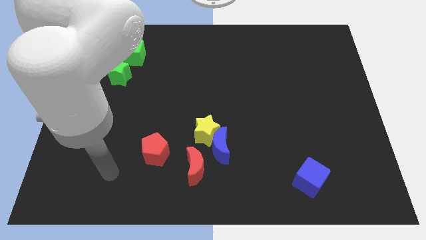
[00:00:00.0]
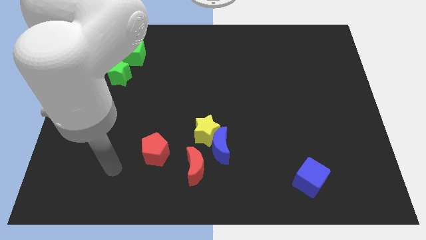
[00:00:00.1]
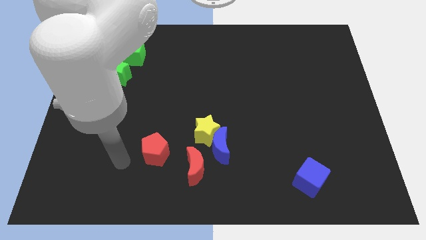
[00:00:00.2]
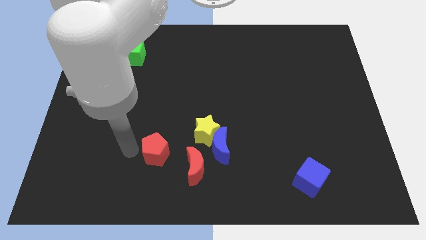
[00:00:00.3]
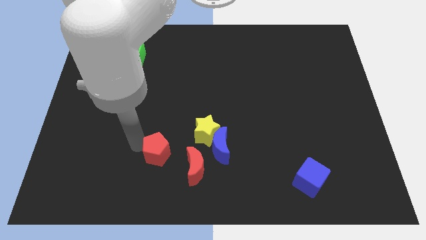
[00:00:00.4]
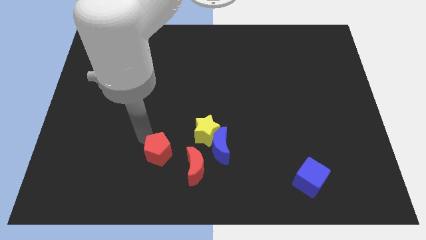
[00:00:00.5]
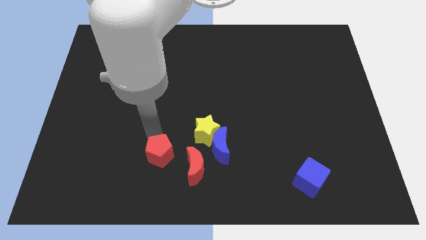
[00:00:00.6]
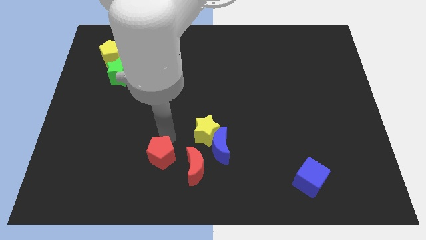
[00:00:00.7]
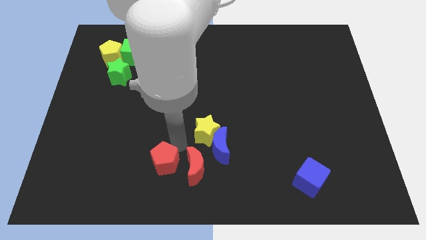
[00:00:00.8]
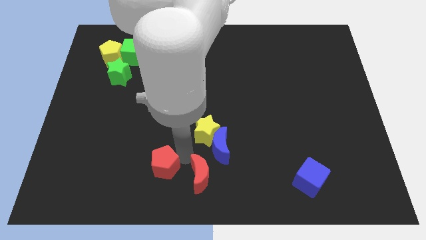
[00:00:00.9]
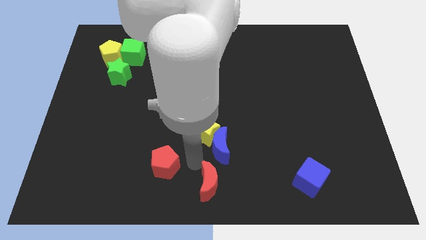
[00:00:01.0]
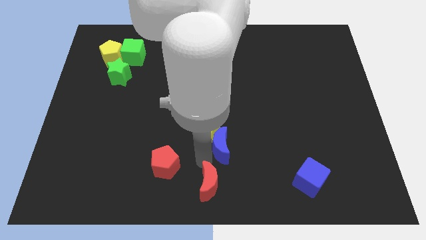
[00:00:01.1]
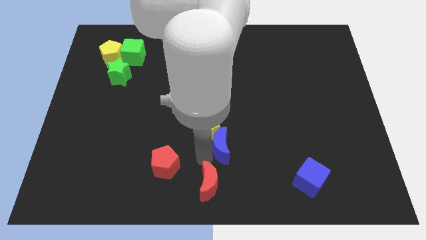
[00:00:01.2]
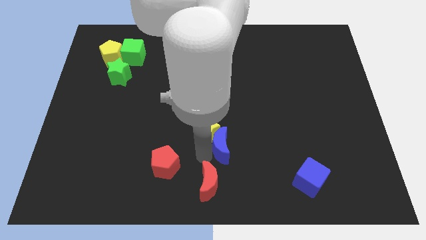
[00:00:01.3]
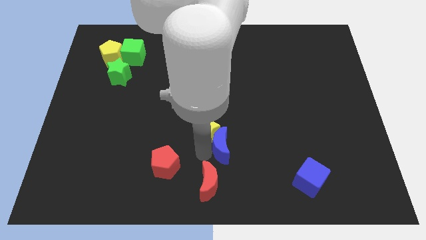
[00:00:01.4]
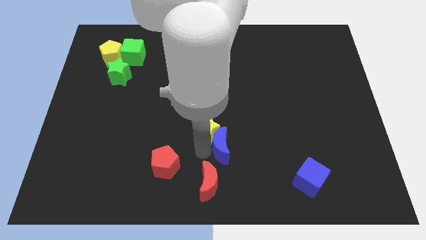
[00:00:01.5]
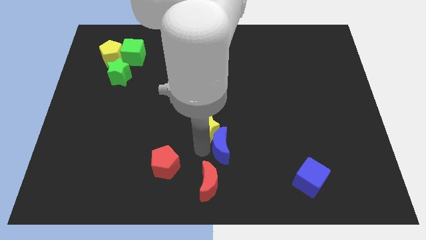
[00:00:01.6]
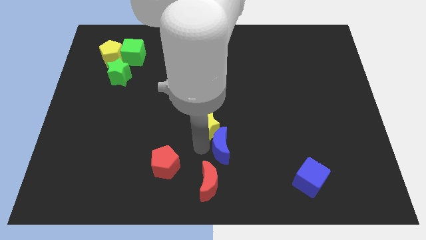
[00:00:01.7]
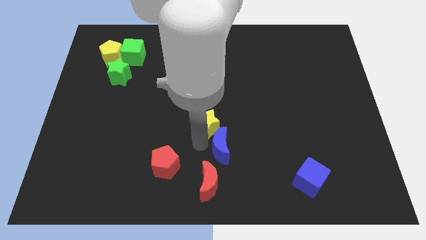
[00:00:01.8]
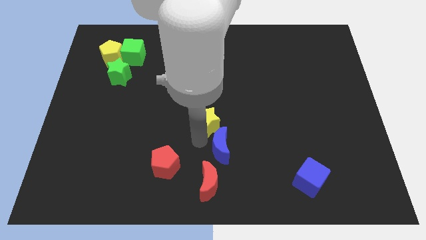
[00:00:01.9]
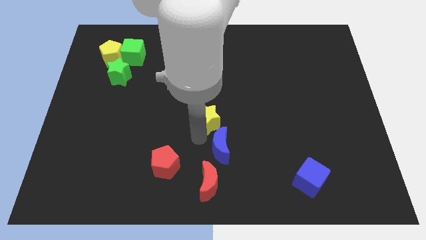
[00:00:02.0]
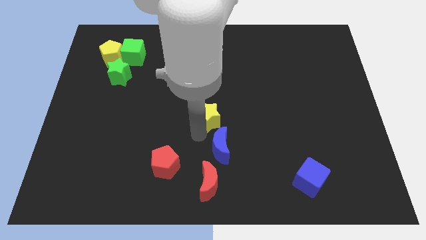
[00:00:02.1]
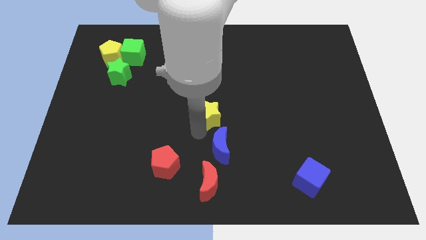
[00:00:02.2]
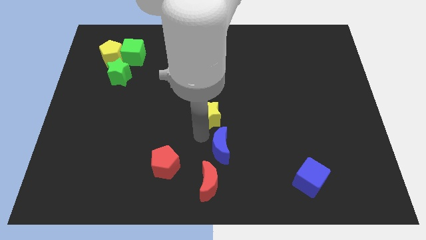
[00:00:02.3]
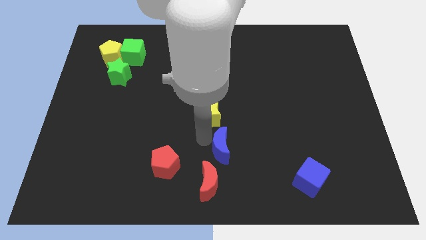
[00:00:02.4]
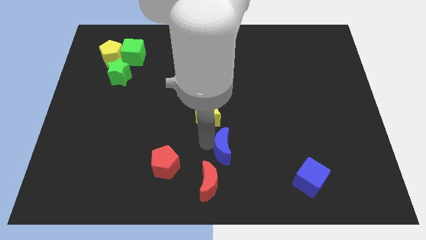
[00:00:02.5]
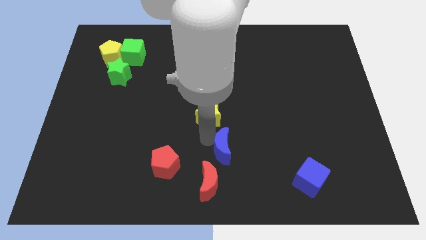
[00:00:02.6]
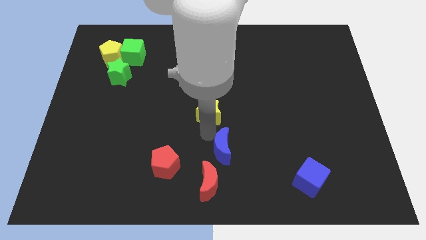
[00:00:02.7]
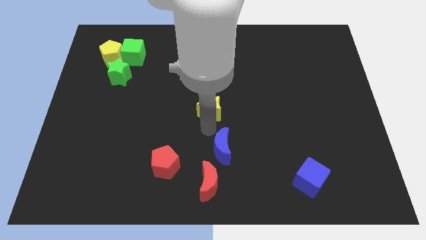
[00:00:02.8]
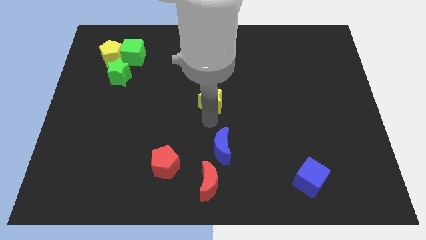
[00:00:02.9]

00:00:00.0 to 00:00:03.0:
slide the yellow star a little upwards

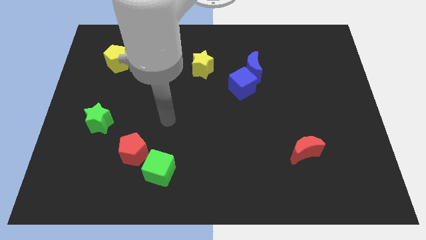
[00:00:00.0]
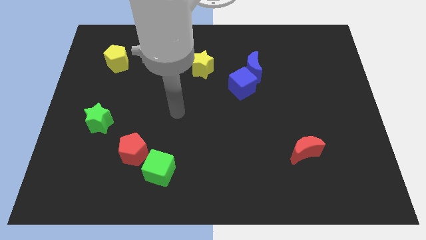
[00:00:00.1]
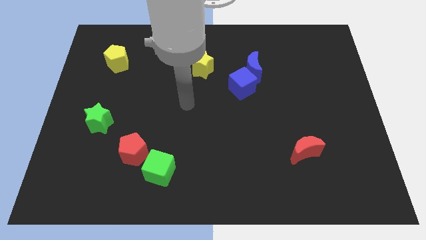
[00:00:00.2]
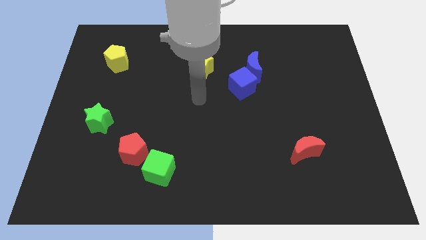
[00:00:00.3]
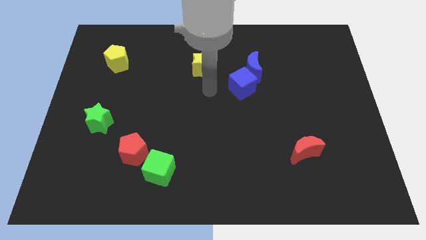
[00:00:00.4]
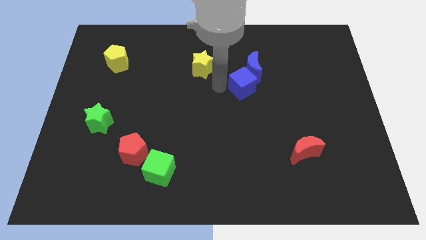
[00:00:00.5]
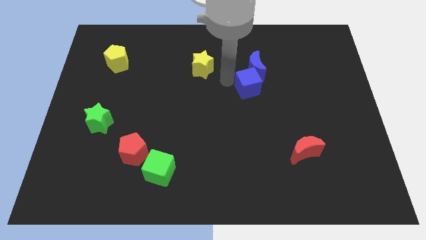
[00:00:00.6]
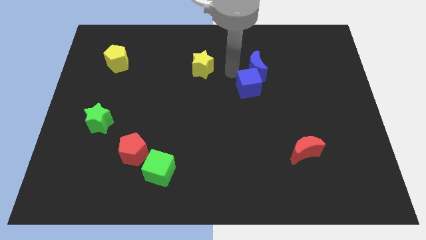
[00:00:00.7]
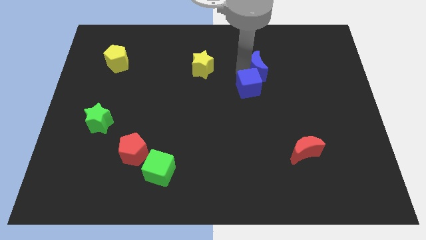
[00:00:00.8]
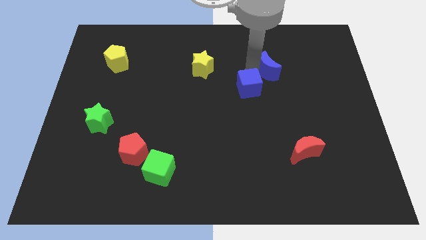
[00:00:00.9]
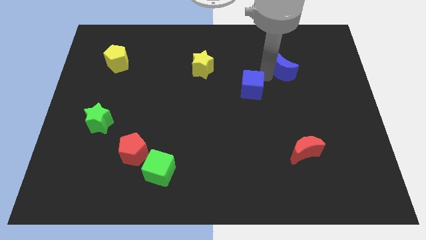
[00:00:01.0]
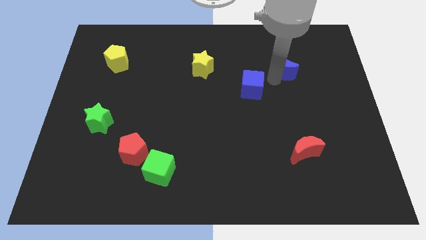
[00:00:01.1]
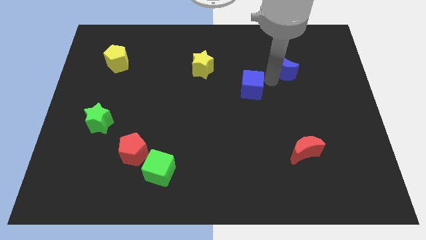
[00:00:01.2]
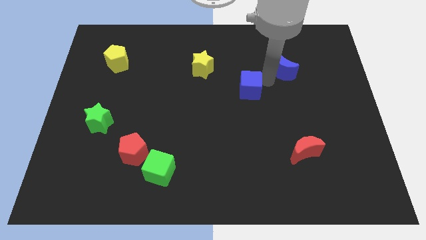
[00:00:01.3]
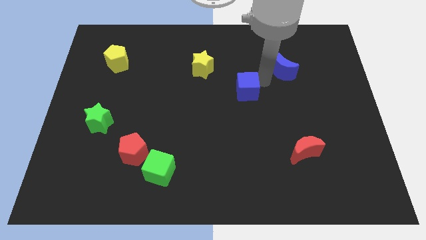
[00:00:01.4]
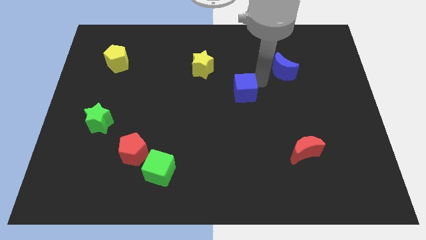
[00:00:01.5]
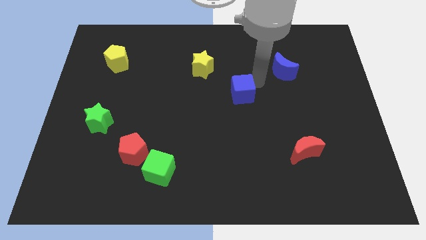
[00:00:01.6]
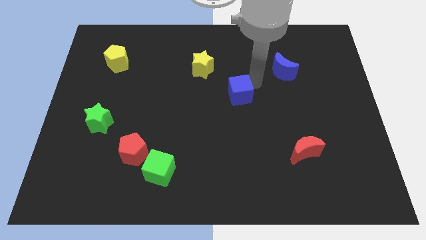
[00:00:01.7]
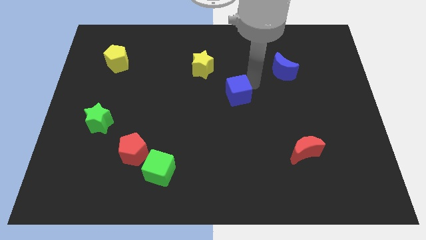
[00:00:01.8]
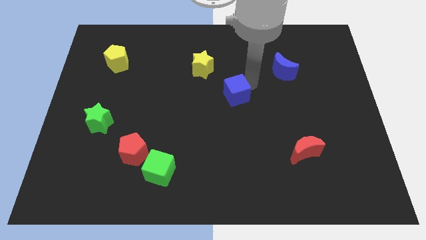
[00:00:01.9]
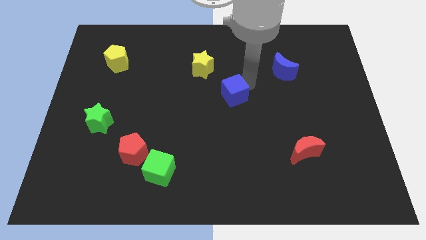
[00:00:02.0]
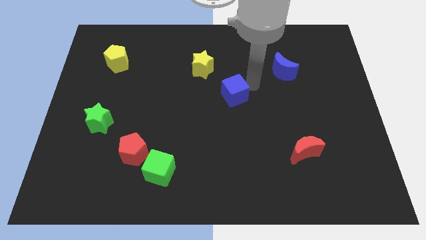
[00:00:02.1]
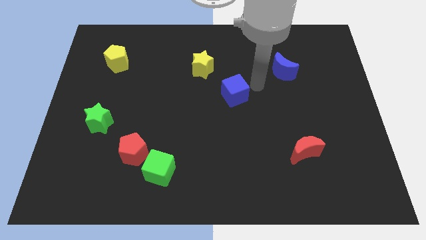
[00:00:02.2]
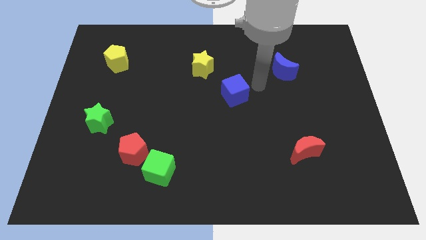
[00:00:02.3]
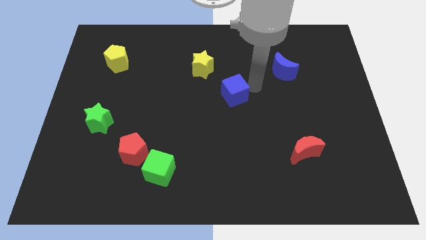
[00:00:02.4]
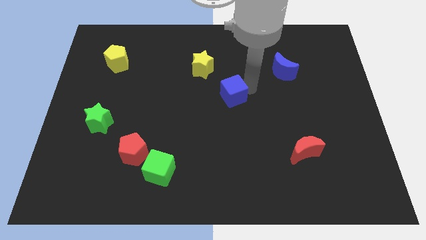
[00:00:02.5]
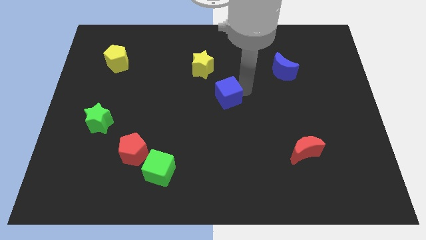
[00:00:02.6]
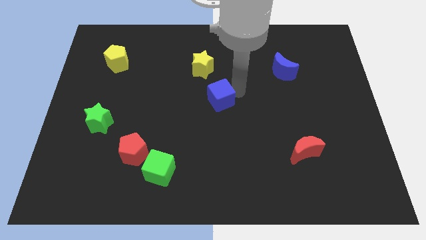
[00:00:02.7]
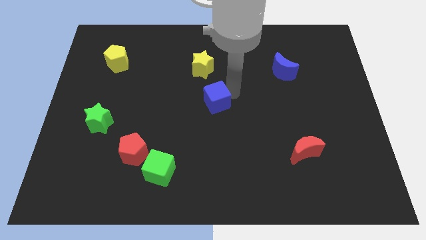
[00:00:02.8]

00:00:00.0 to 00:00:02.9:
move the blue cube downwards and then left a little bit

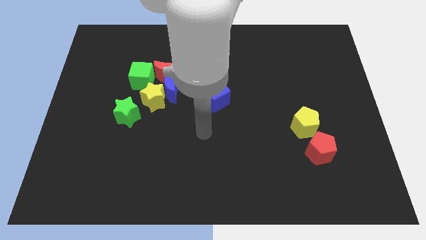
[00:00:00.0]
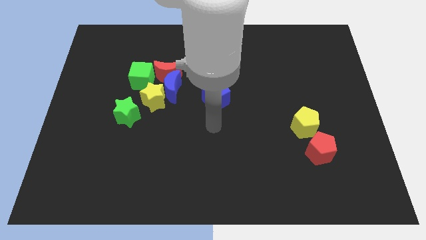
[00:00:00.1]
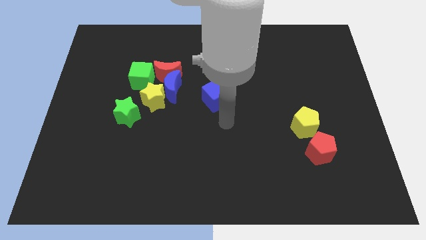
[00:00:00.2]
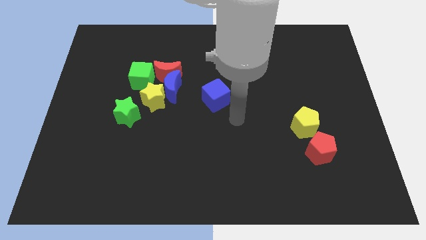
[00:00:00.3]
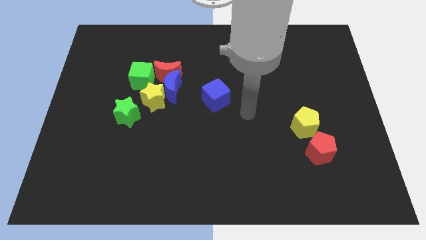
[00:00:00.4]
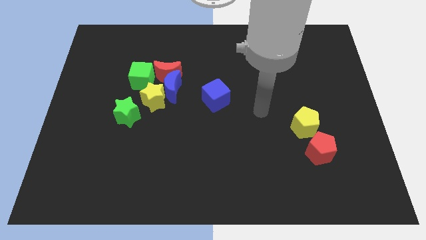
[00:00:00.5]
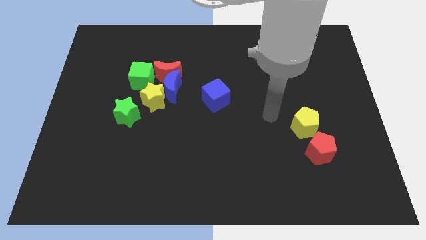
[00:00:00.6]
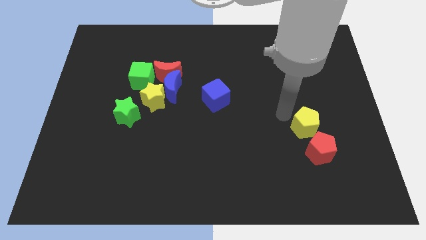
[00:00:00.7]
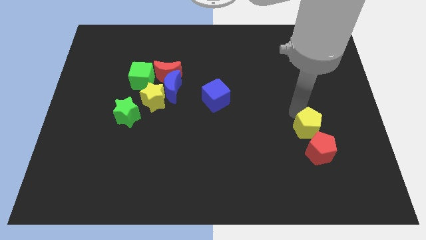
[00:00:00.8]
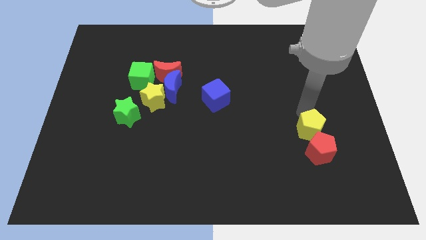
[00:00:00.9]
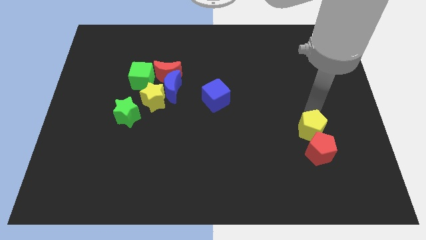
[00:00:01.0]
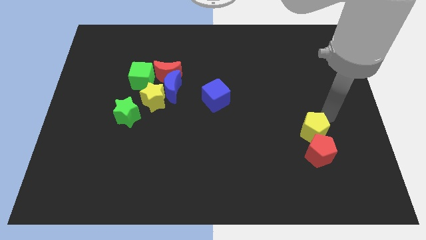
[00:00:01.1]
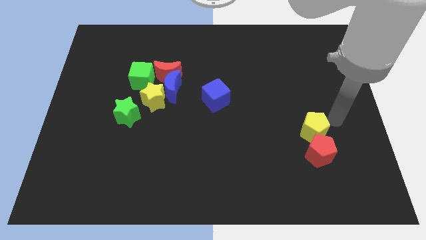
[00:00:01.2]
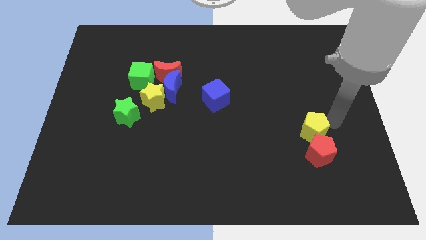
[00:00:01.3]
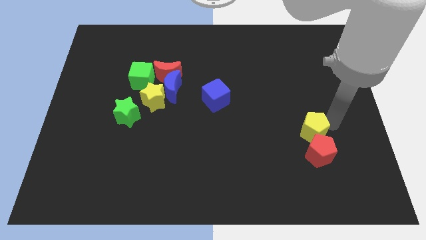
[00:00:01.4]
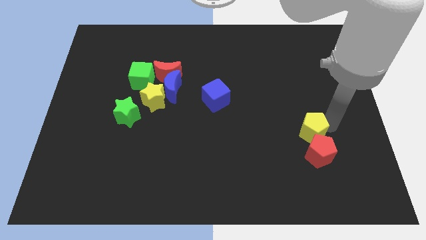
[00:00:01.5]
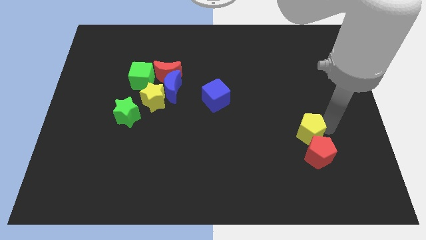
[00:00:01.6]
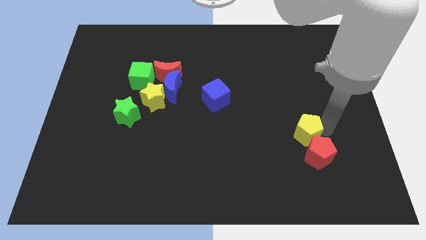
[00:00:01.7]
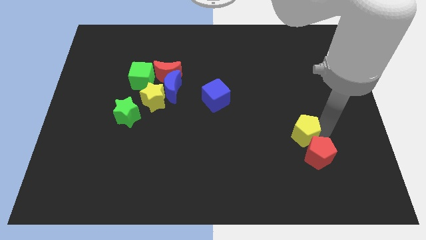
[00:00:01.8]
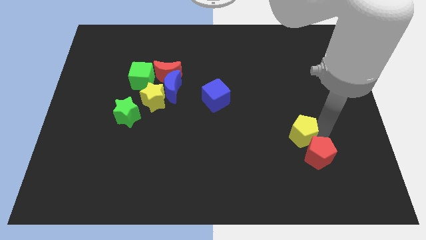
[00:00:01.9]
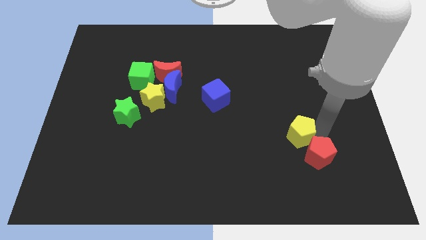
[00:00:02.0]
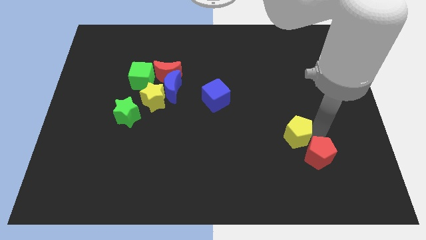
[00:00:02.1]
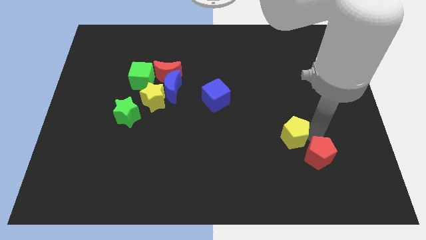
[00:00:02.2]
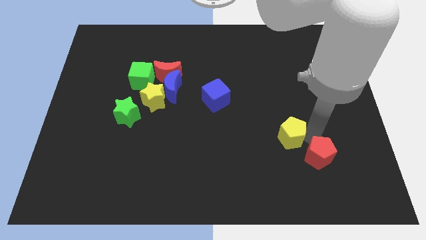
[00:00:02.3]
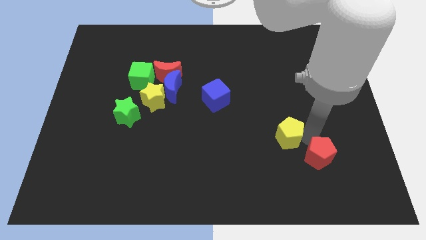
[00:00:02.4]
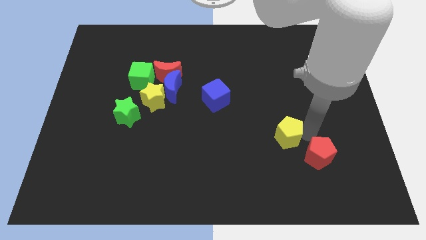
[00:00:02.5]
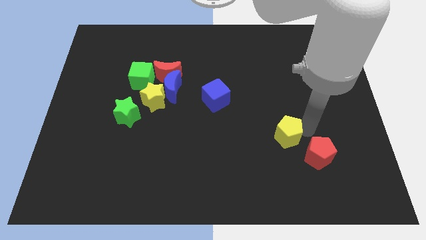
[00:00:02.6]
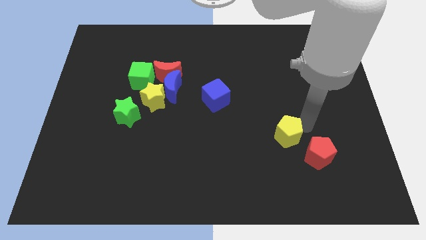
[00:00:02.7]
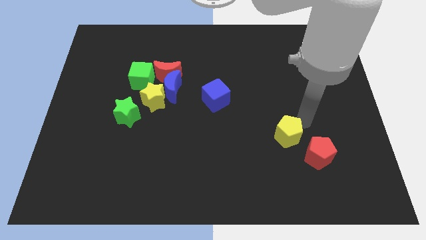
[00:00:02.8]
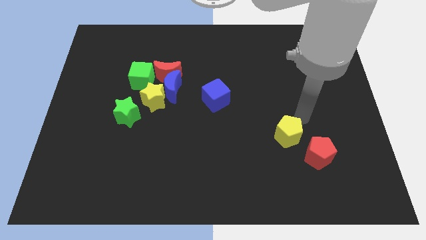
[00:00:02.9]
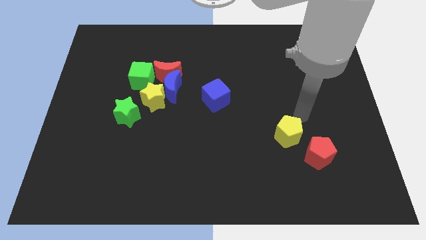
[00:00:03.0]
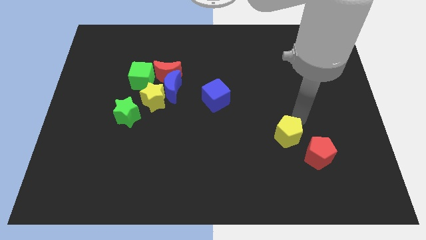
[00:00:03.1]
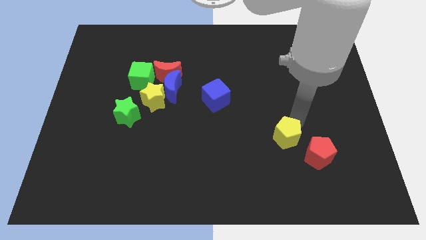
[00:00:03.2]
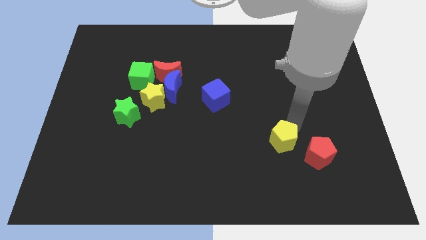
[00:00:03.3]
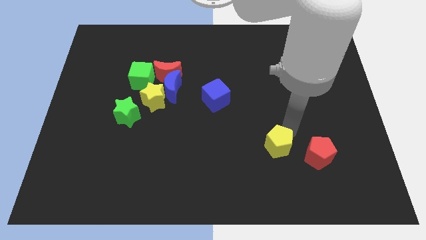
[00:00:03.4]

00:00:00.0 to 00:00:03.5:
slide the yellow pentagon down and to the left diagonally slightly
